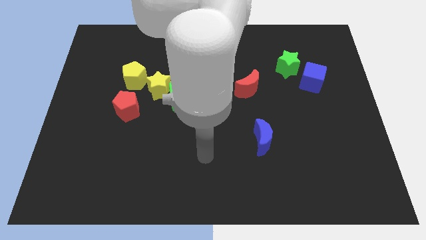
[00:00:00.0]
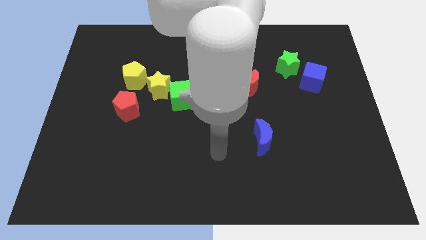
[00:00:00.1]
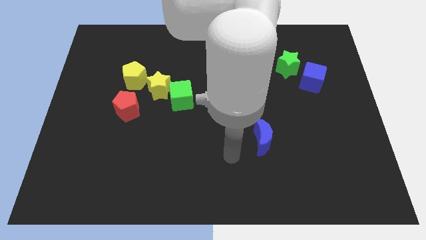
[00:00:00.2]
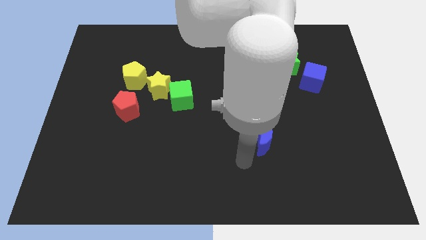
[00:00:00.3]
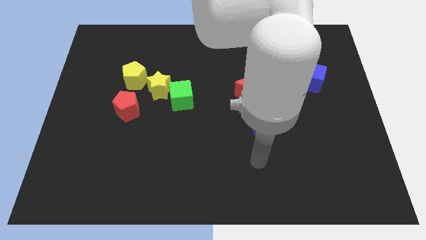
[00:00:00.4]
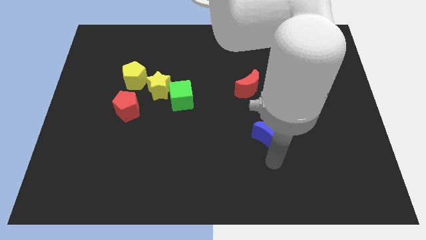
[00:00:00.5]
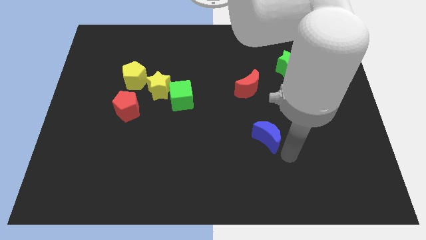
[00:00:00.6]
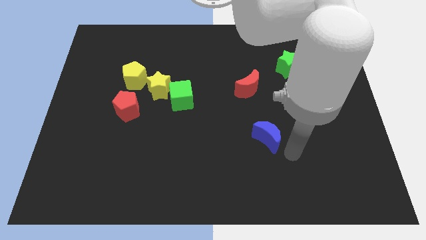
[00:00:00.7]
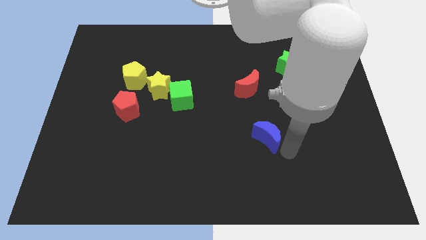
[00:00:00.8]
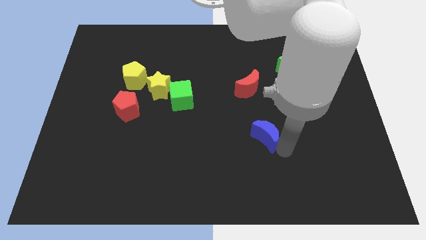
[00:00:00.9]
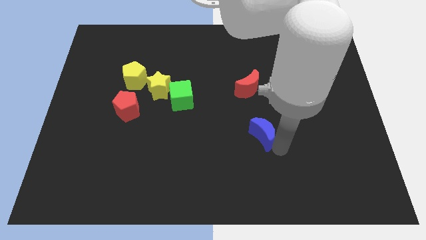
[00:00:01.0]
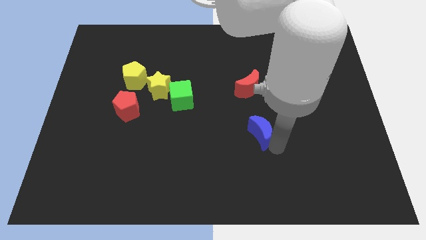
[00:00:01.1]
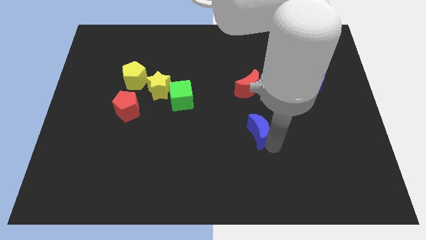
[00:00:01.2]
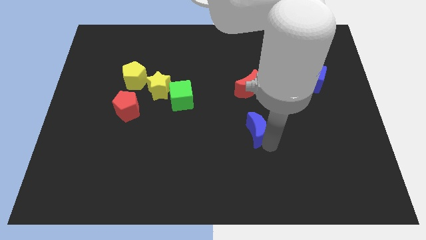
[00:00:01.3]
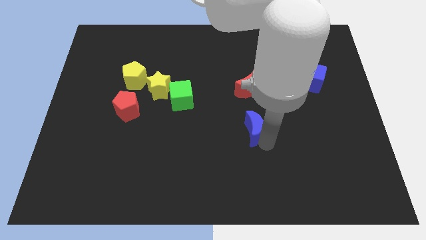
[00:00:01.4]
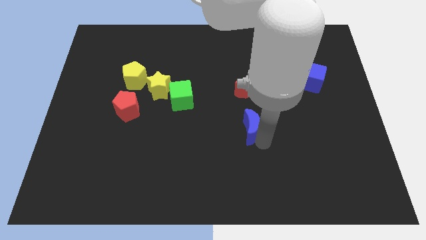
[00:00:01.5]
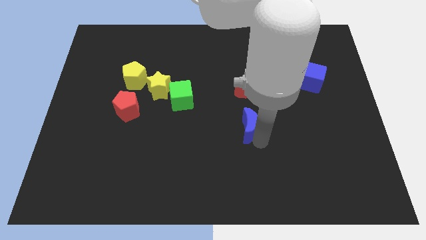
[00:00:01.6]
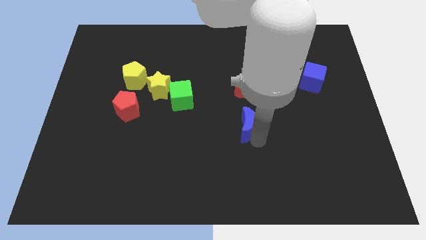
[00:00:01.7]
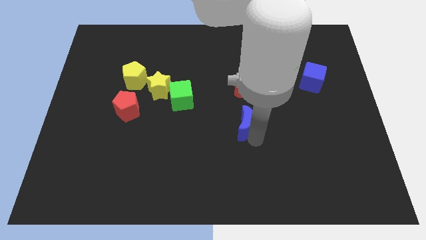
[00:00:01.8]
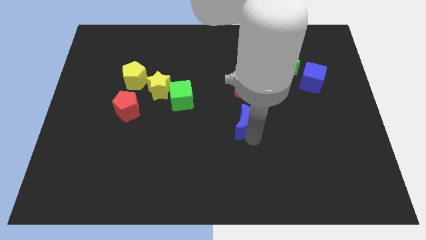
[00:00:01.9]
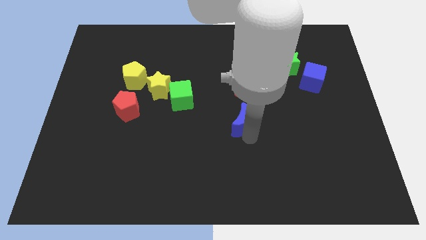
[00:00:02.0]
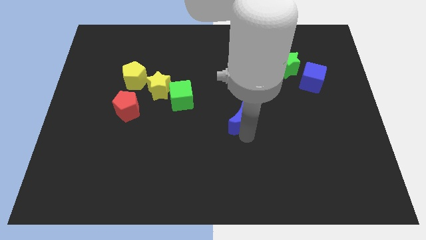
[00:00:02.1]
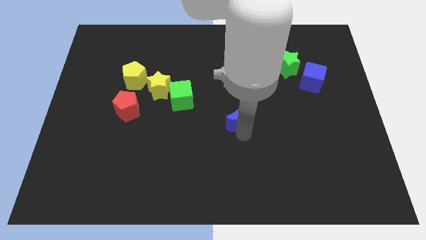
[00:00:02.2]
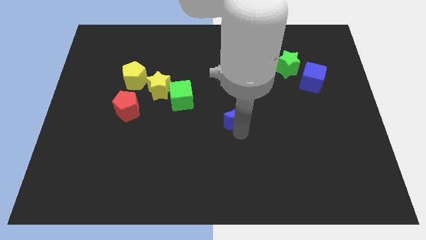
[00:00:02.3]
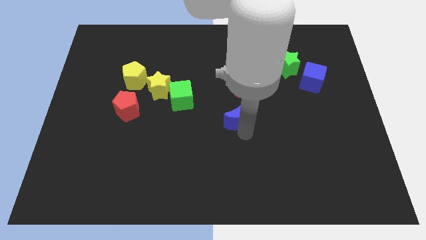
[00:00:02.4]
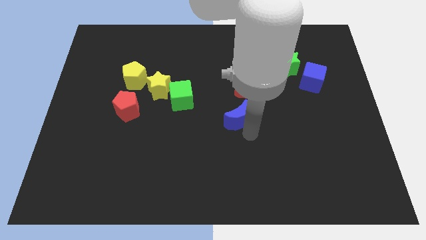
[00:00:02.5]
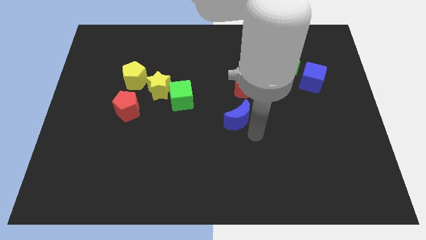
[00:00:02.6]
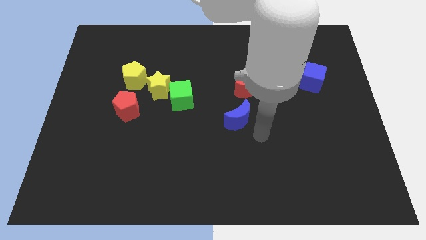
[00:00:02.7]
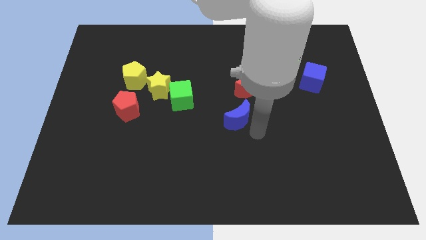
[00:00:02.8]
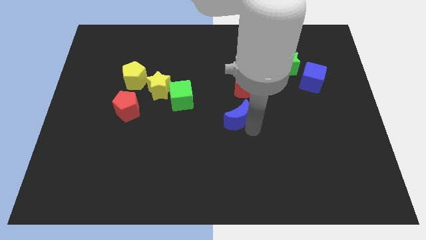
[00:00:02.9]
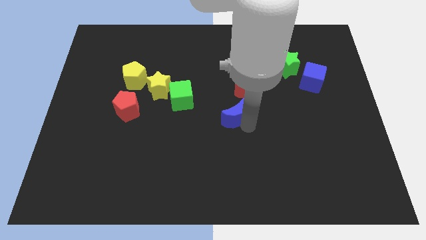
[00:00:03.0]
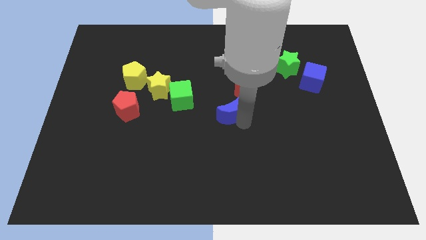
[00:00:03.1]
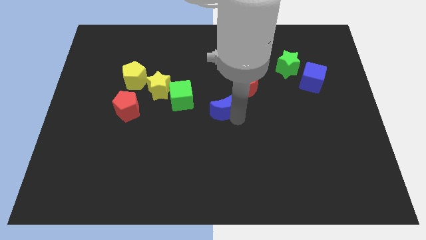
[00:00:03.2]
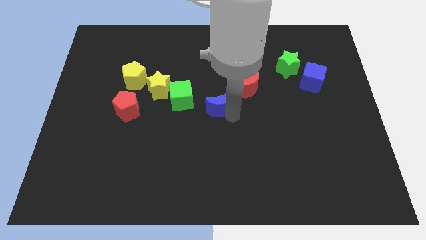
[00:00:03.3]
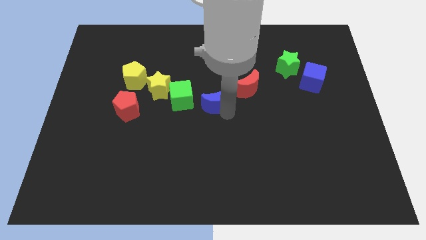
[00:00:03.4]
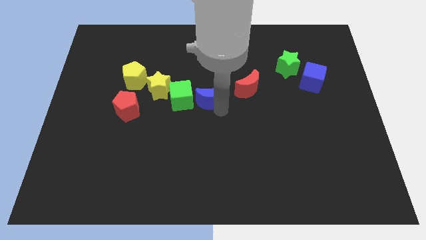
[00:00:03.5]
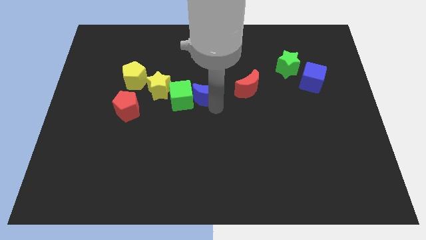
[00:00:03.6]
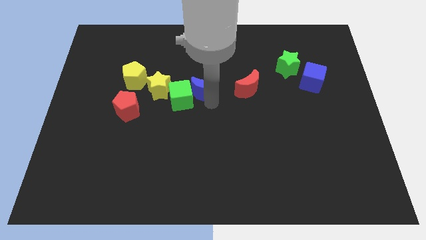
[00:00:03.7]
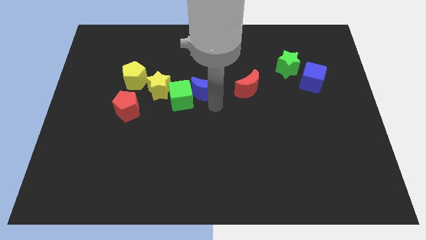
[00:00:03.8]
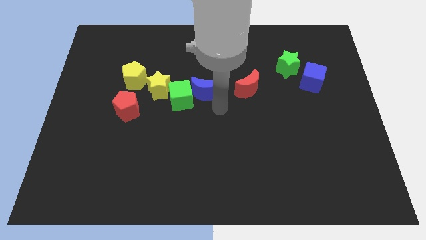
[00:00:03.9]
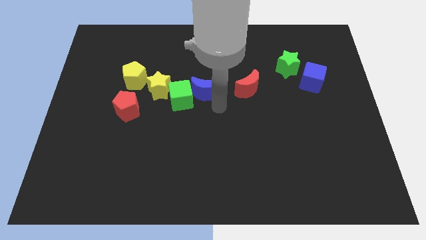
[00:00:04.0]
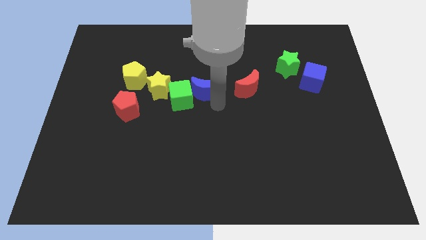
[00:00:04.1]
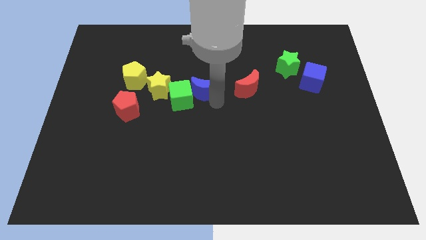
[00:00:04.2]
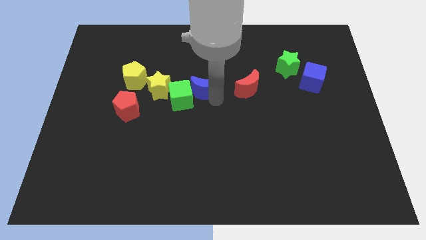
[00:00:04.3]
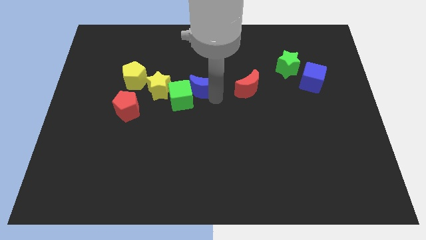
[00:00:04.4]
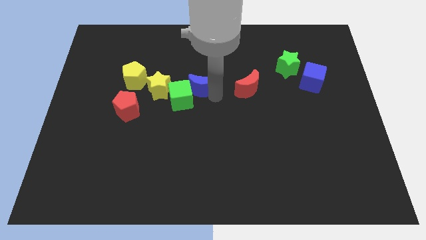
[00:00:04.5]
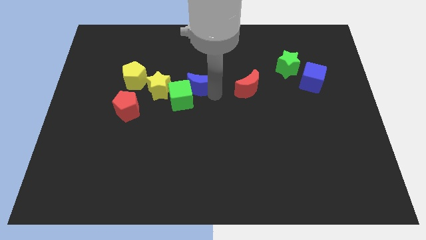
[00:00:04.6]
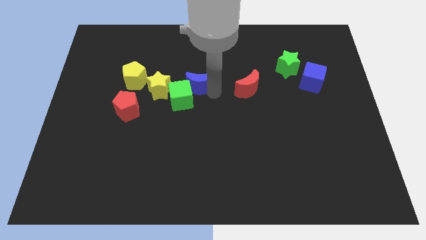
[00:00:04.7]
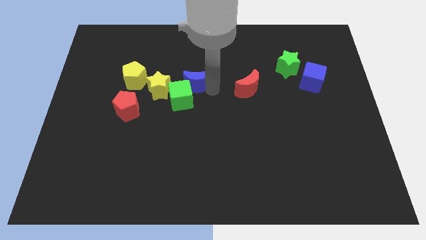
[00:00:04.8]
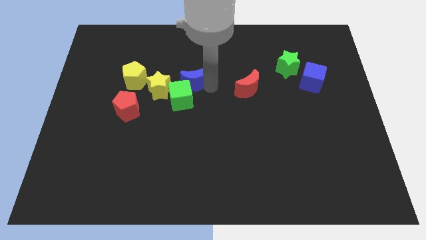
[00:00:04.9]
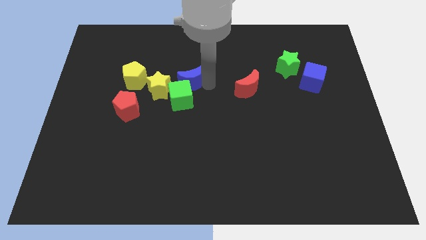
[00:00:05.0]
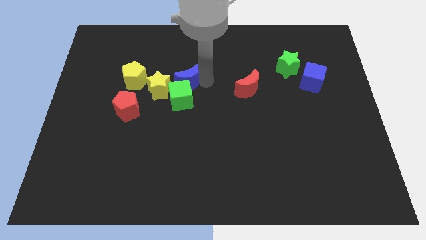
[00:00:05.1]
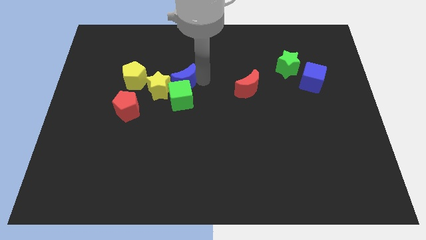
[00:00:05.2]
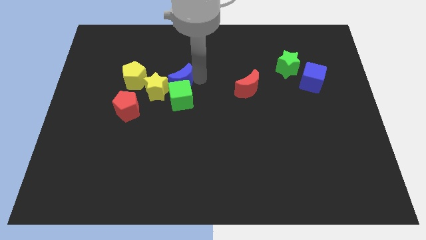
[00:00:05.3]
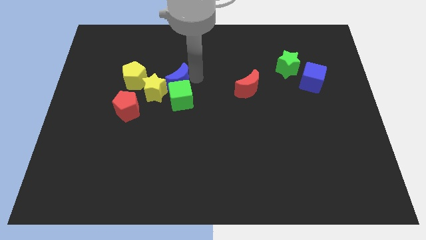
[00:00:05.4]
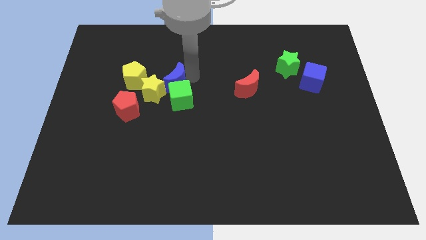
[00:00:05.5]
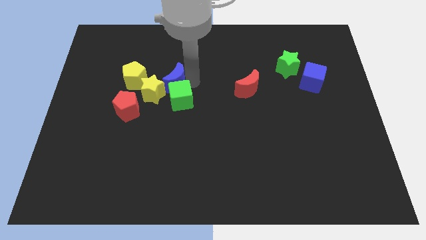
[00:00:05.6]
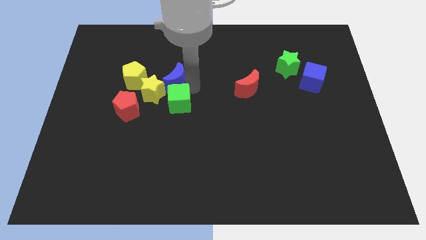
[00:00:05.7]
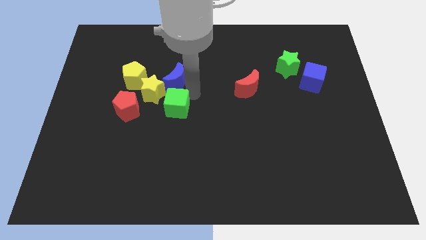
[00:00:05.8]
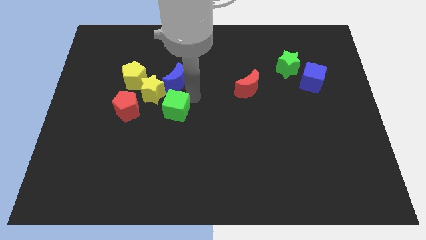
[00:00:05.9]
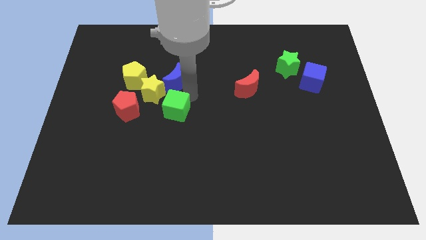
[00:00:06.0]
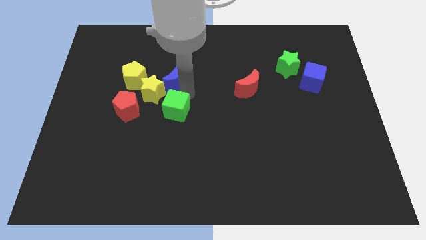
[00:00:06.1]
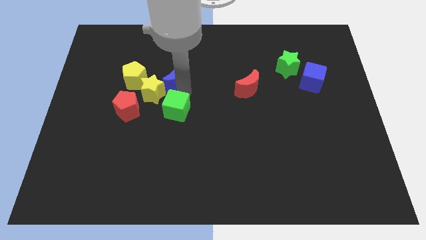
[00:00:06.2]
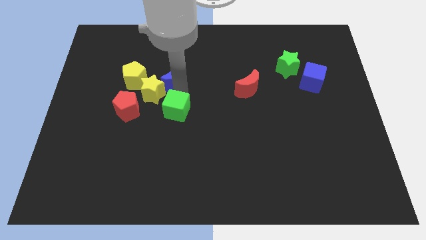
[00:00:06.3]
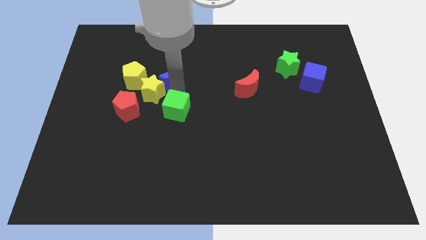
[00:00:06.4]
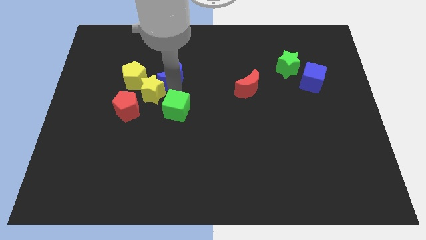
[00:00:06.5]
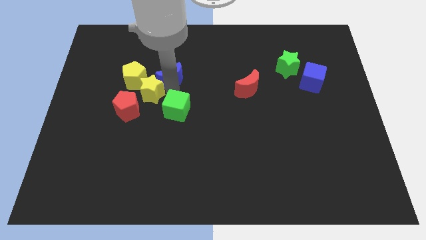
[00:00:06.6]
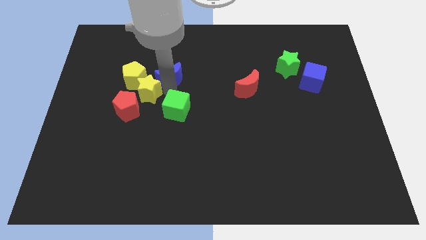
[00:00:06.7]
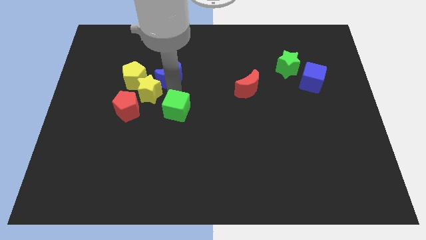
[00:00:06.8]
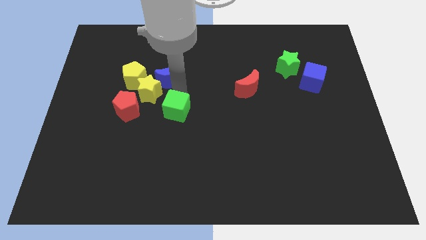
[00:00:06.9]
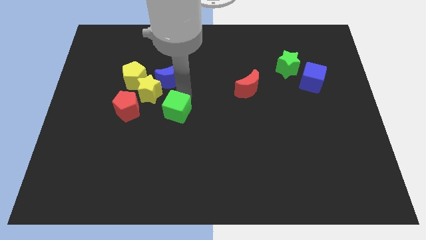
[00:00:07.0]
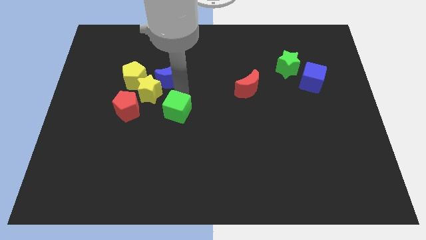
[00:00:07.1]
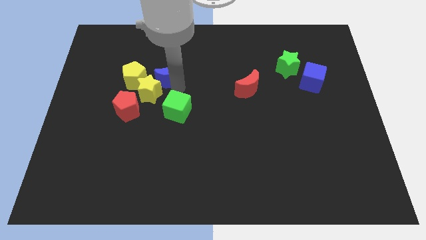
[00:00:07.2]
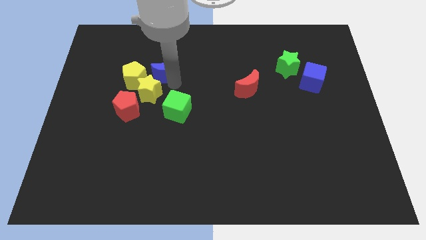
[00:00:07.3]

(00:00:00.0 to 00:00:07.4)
move the blue moon to the top right side of the yellow pentagon
